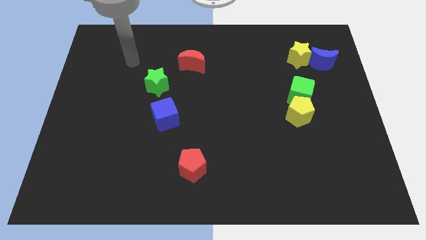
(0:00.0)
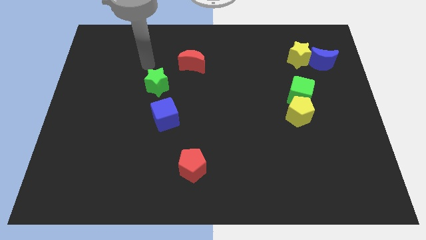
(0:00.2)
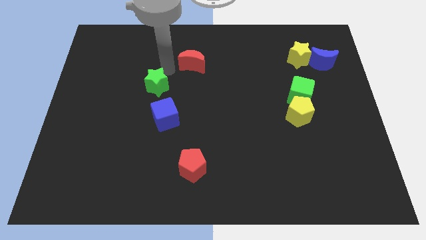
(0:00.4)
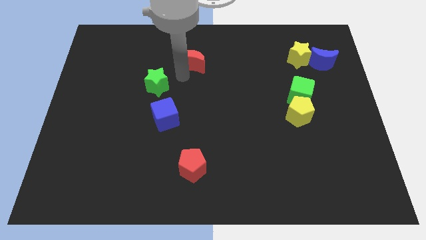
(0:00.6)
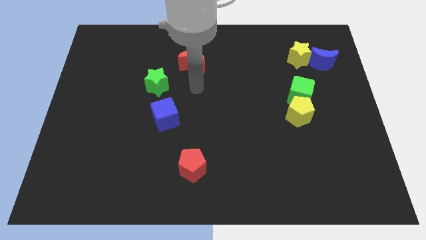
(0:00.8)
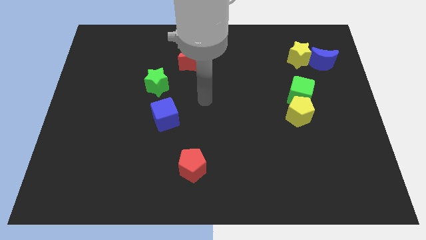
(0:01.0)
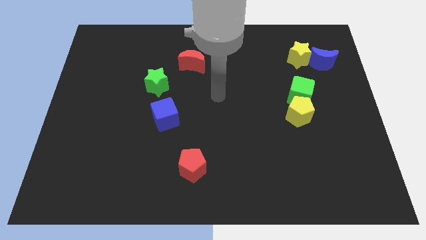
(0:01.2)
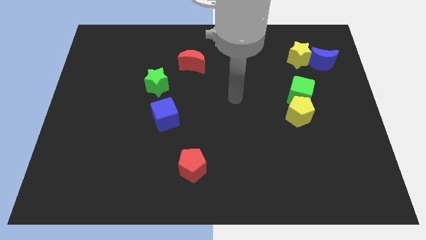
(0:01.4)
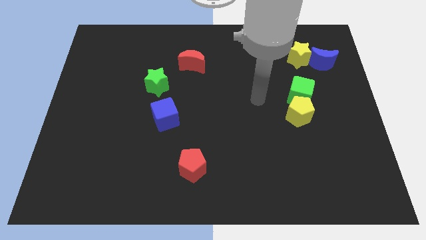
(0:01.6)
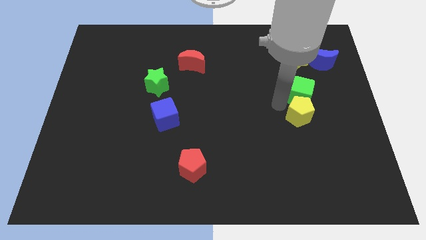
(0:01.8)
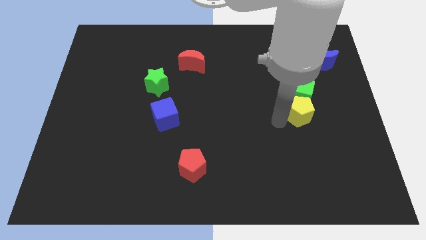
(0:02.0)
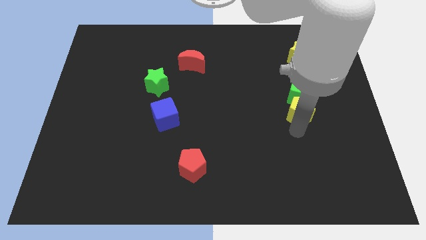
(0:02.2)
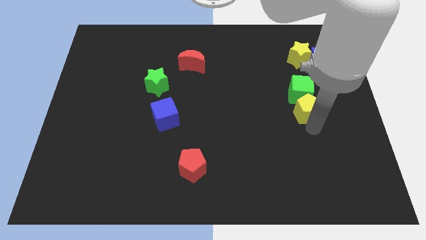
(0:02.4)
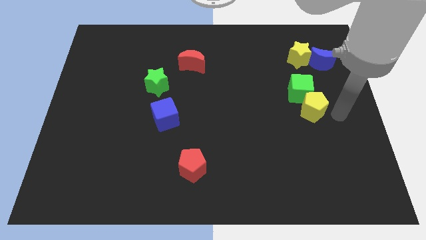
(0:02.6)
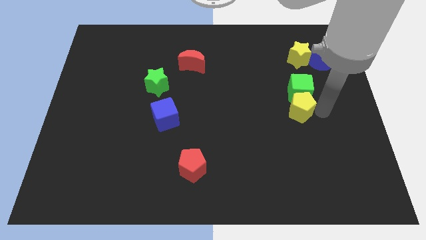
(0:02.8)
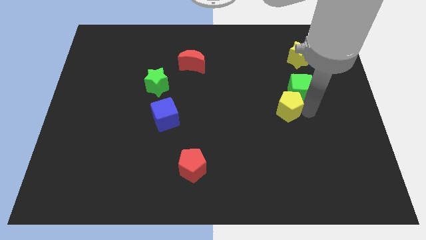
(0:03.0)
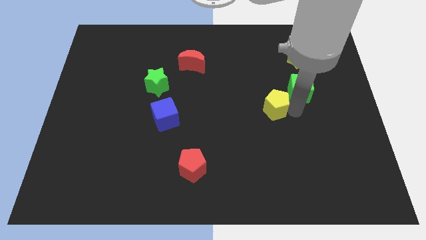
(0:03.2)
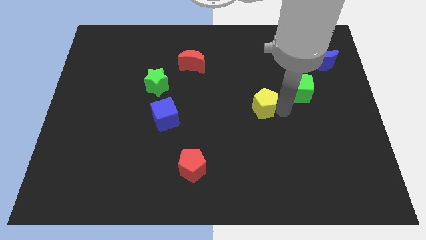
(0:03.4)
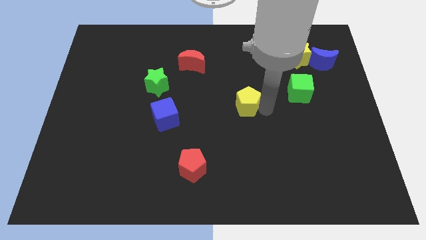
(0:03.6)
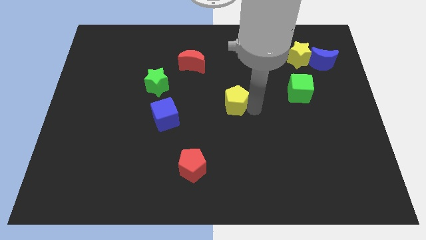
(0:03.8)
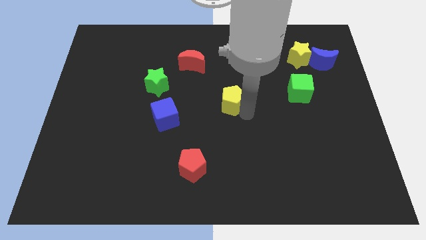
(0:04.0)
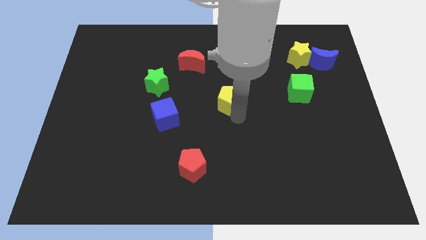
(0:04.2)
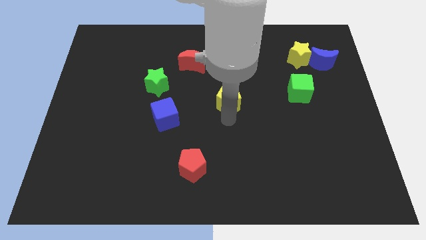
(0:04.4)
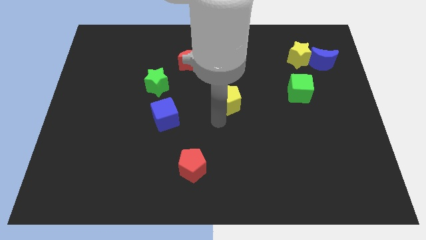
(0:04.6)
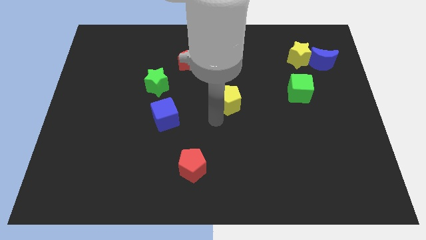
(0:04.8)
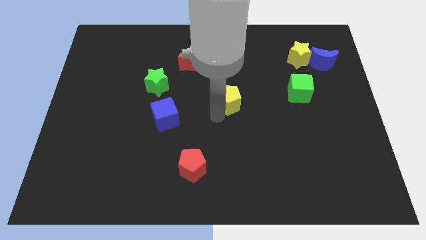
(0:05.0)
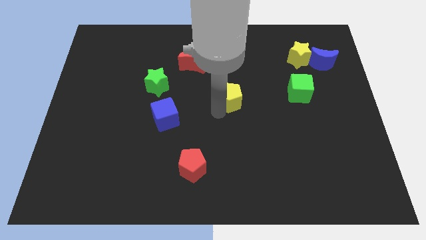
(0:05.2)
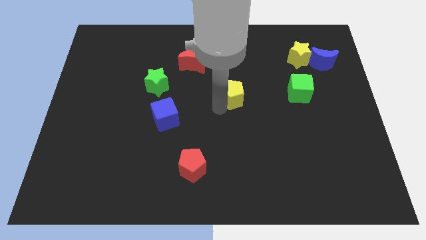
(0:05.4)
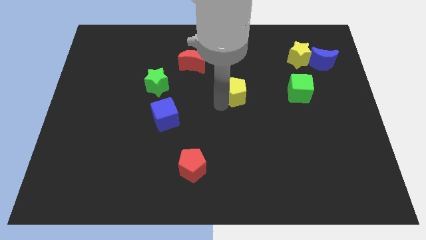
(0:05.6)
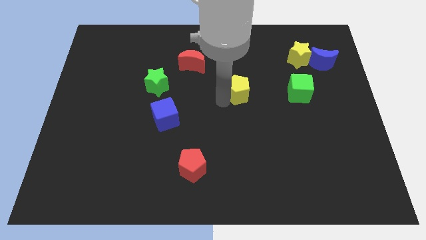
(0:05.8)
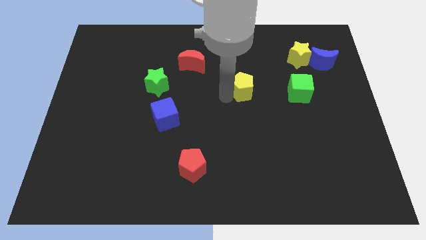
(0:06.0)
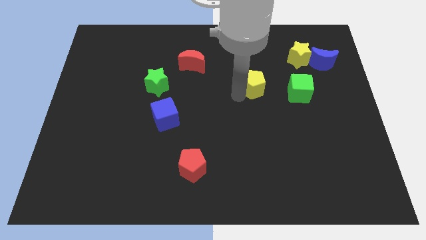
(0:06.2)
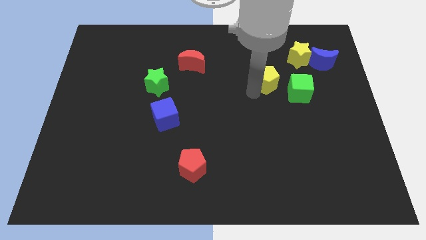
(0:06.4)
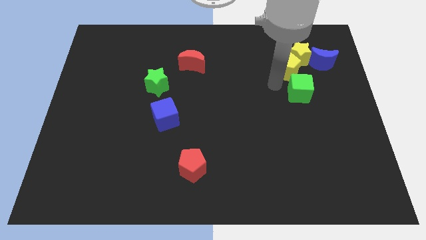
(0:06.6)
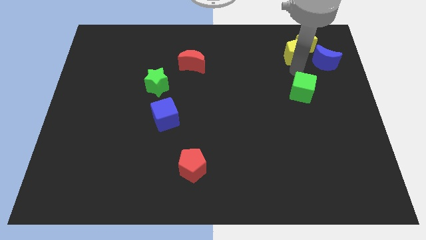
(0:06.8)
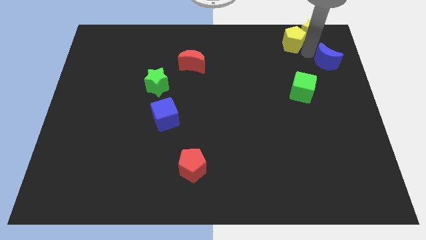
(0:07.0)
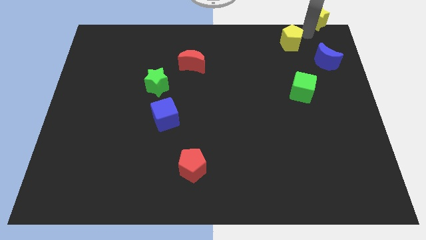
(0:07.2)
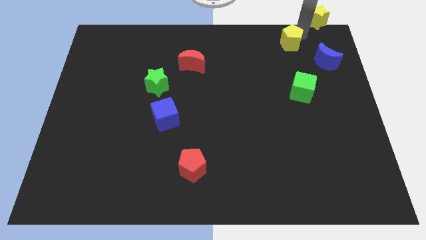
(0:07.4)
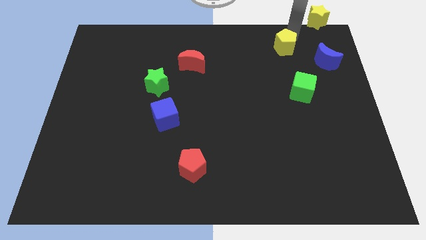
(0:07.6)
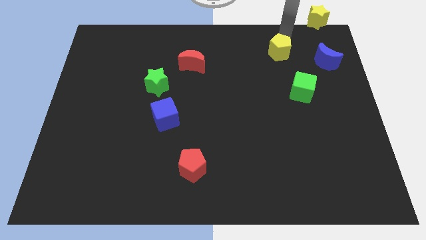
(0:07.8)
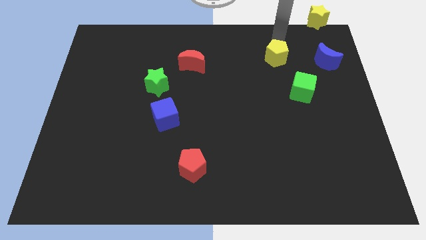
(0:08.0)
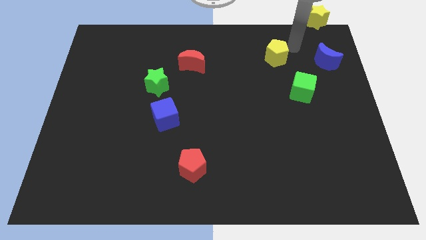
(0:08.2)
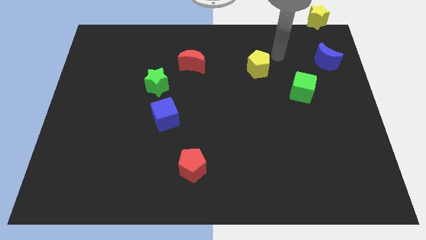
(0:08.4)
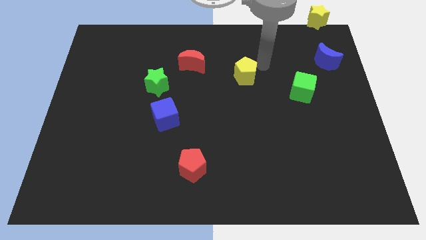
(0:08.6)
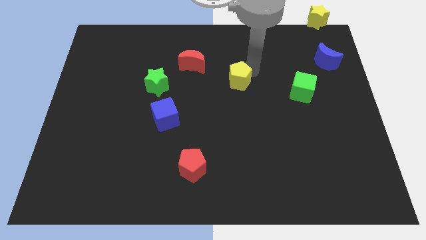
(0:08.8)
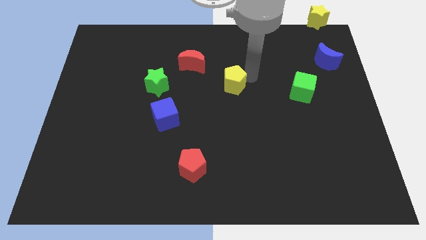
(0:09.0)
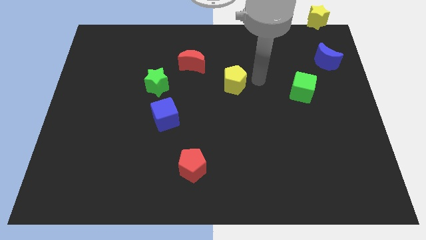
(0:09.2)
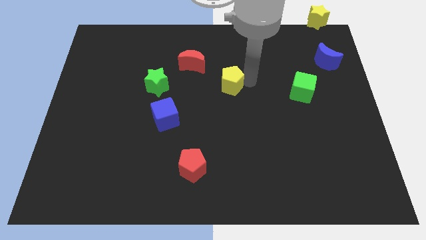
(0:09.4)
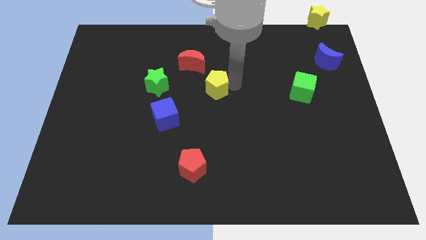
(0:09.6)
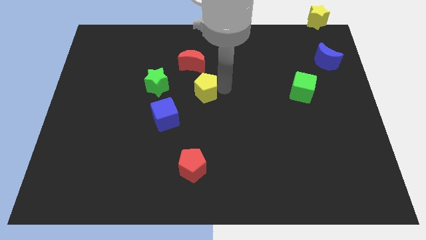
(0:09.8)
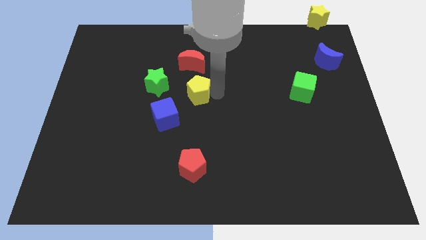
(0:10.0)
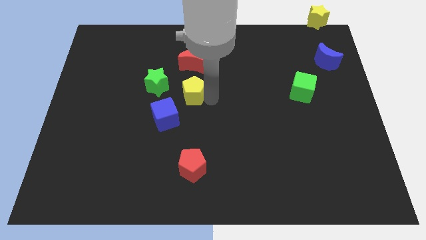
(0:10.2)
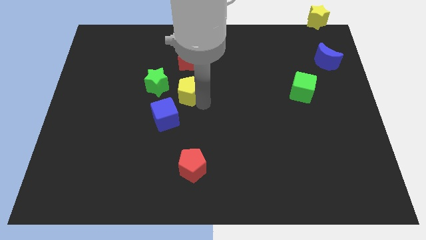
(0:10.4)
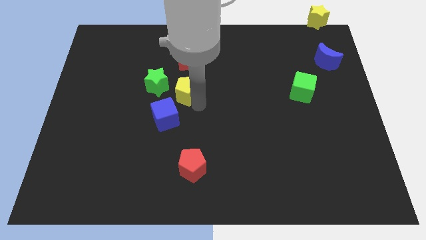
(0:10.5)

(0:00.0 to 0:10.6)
put the yellow pentagon above the blue cube

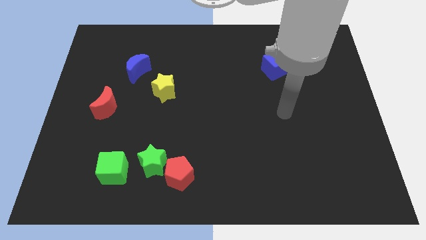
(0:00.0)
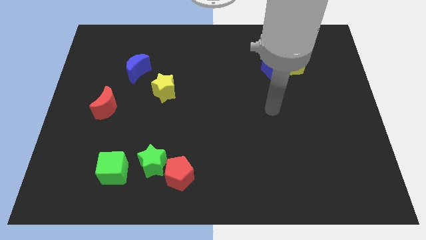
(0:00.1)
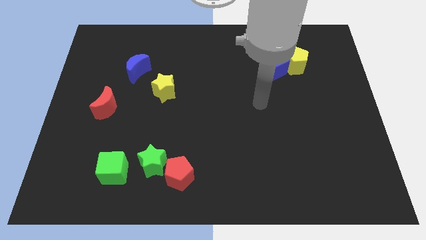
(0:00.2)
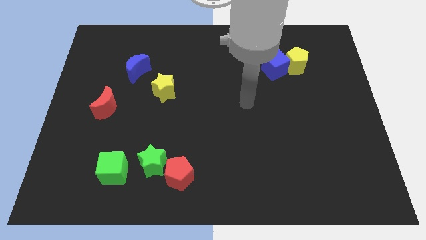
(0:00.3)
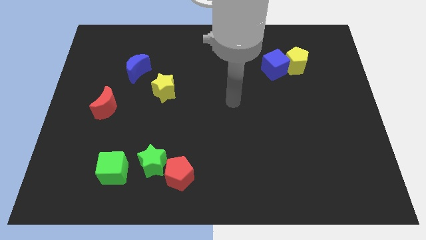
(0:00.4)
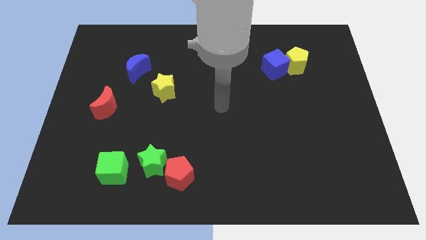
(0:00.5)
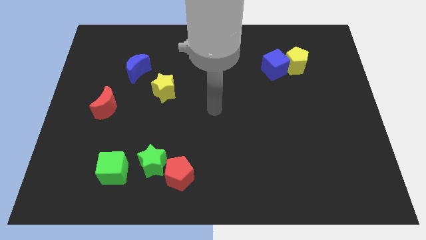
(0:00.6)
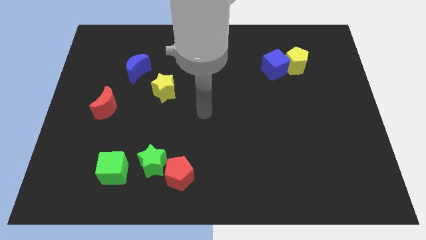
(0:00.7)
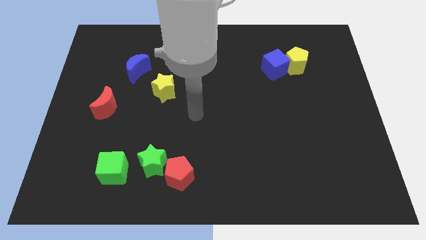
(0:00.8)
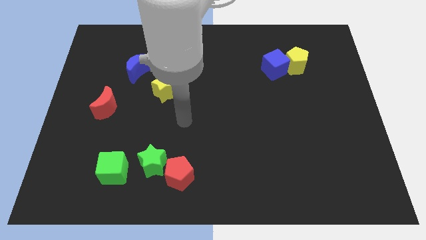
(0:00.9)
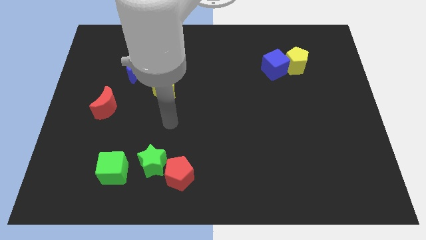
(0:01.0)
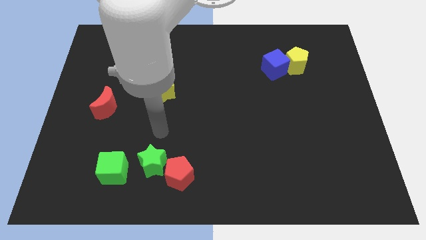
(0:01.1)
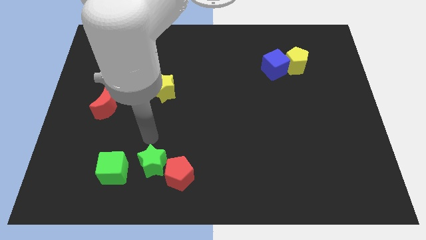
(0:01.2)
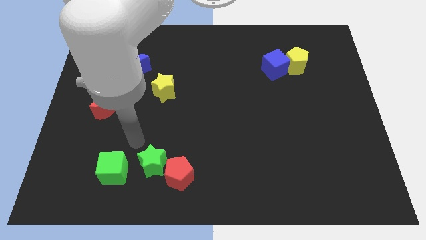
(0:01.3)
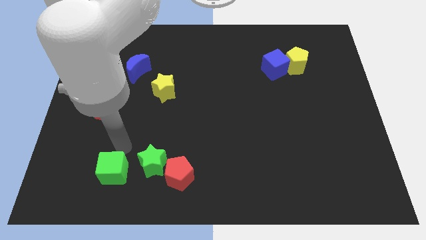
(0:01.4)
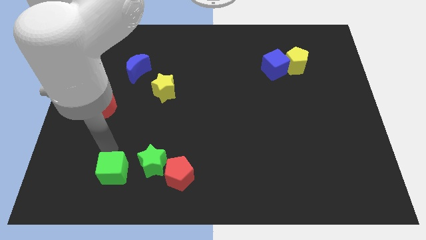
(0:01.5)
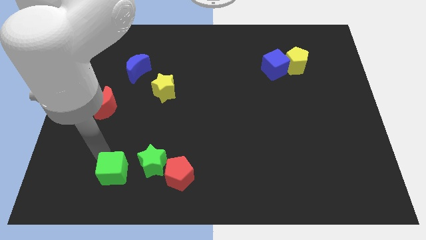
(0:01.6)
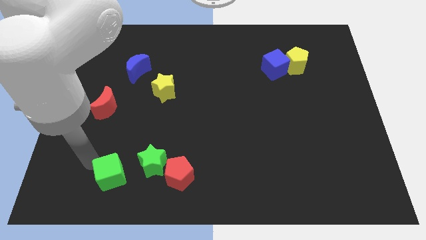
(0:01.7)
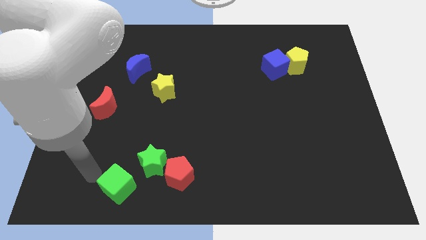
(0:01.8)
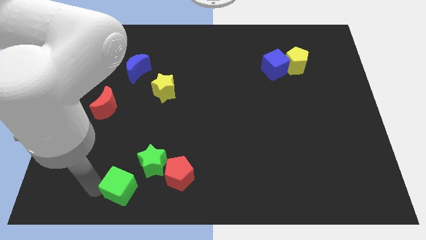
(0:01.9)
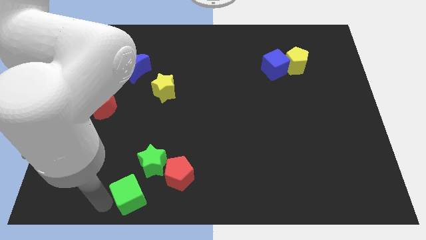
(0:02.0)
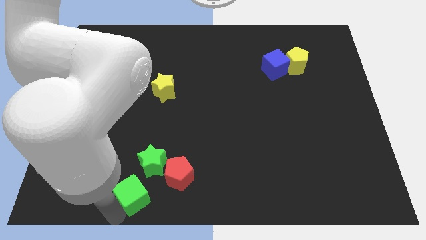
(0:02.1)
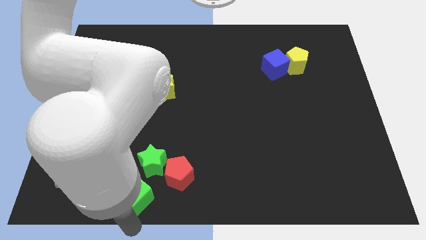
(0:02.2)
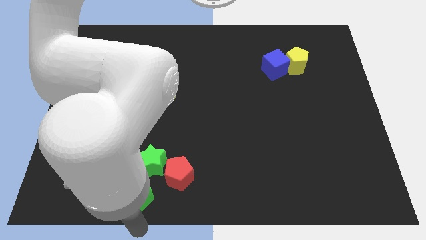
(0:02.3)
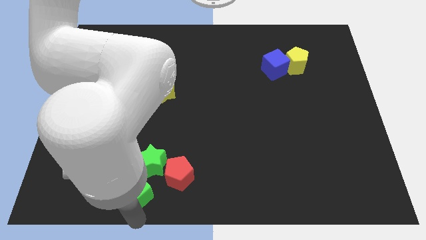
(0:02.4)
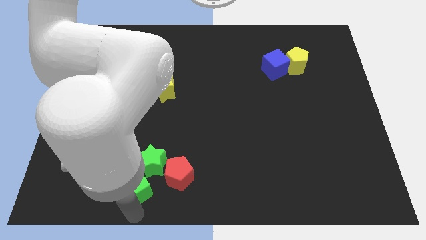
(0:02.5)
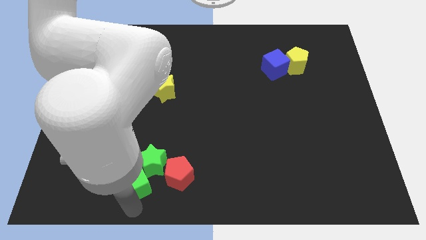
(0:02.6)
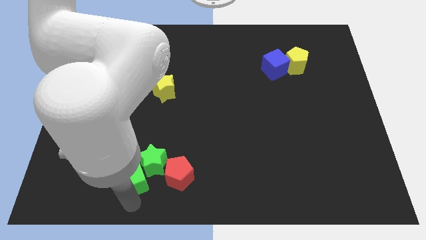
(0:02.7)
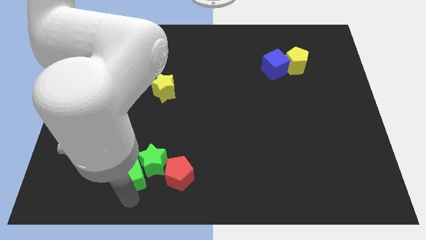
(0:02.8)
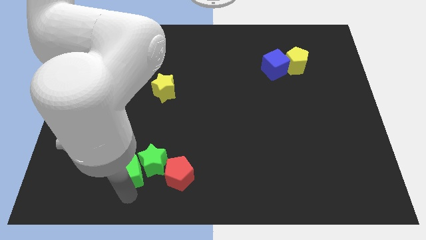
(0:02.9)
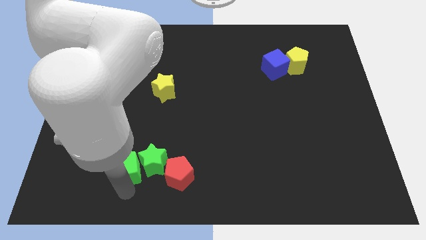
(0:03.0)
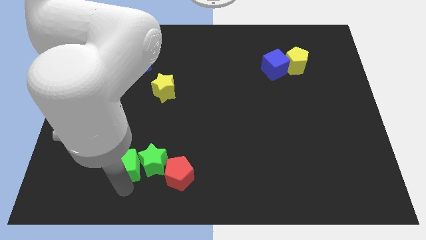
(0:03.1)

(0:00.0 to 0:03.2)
move the green cube to the top left side of the green star
